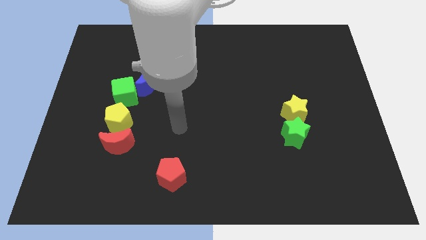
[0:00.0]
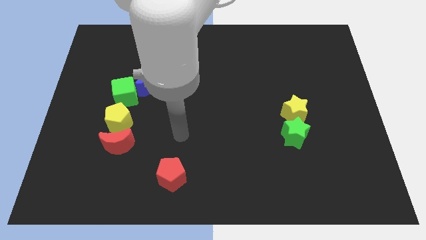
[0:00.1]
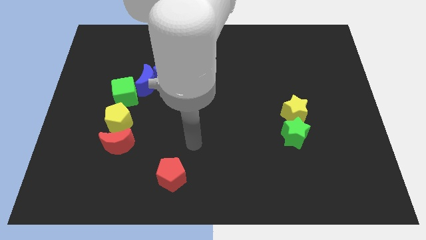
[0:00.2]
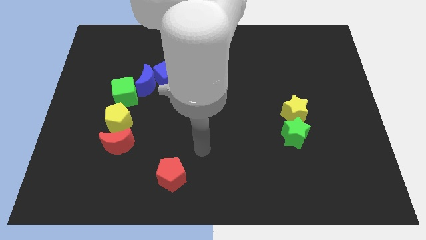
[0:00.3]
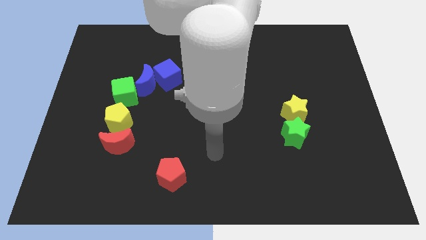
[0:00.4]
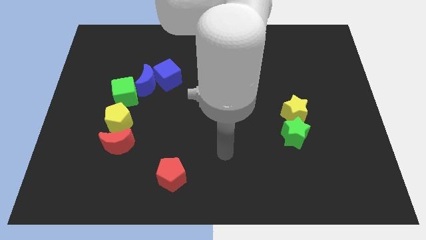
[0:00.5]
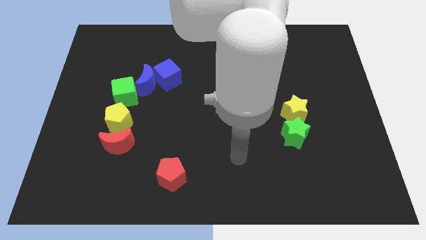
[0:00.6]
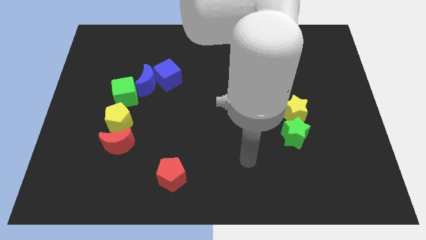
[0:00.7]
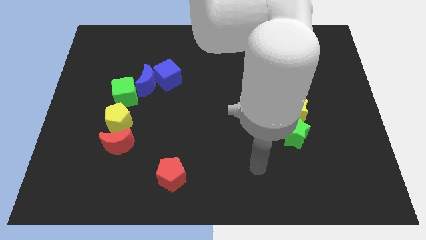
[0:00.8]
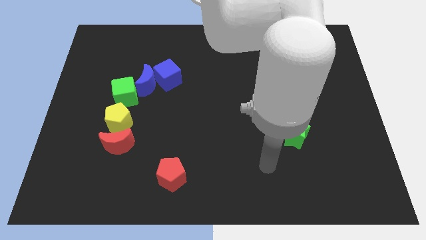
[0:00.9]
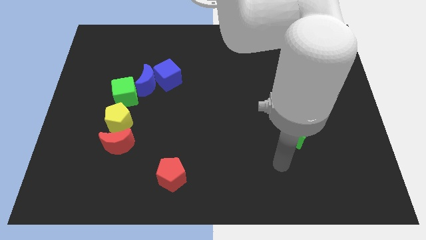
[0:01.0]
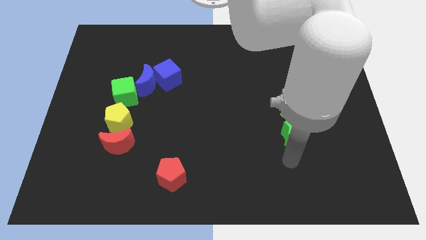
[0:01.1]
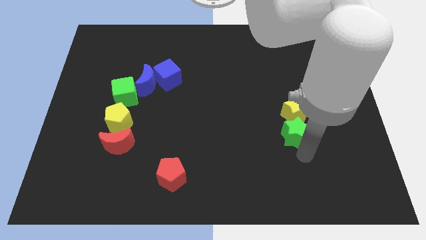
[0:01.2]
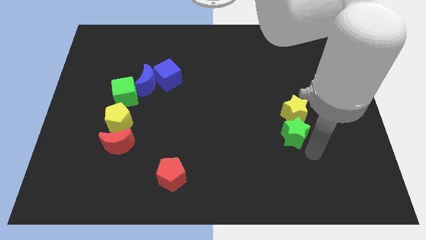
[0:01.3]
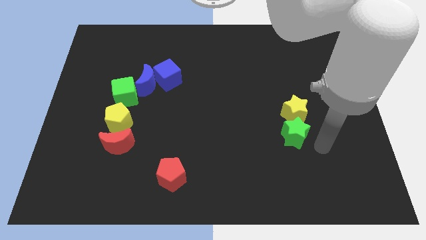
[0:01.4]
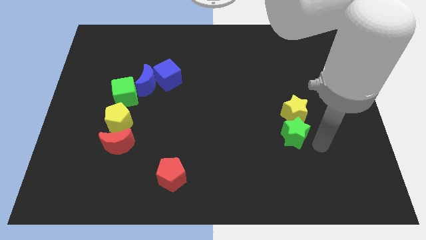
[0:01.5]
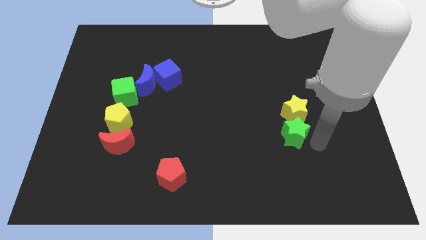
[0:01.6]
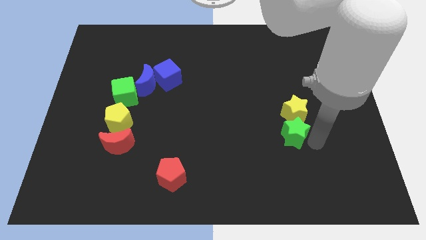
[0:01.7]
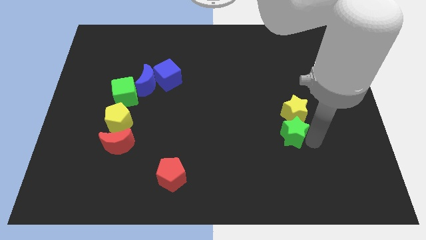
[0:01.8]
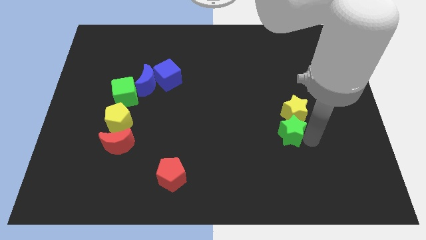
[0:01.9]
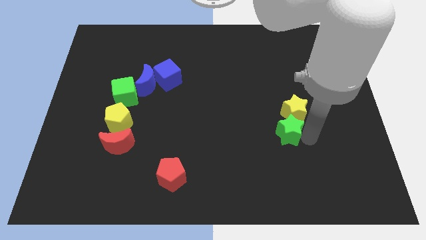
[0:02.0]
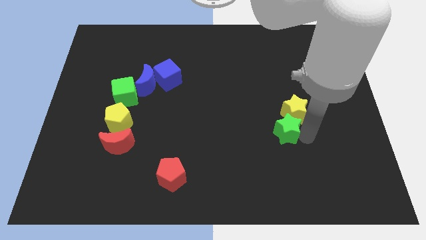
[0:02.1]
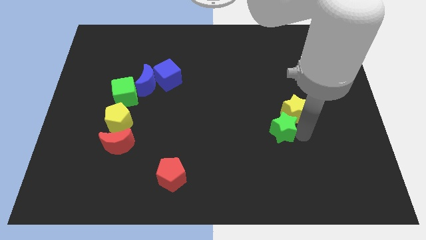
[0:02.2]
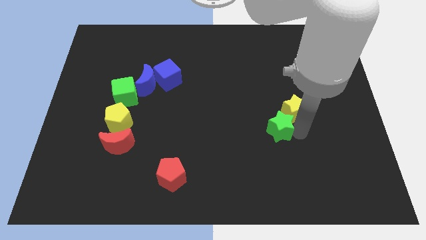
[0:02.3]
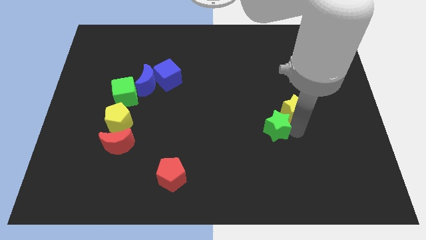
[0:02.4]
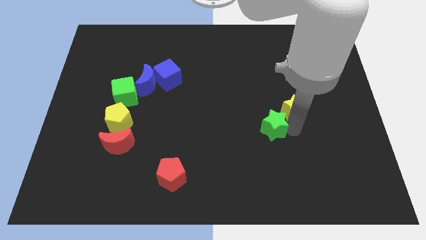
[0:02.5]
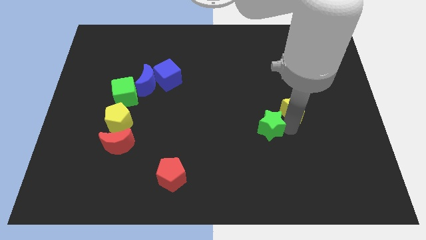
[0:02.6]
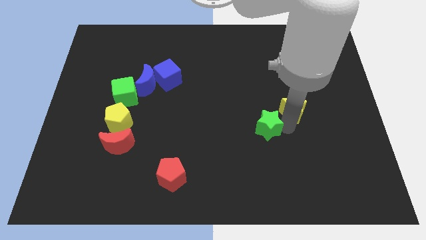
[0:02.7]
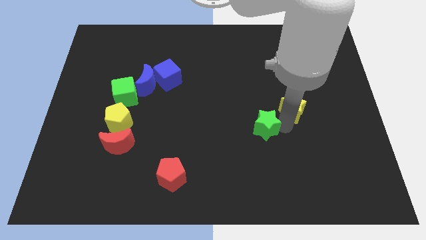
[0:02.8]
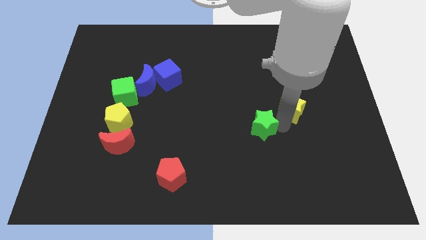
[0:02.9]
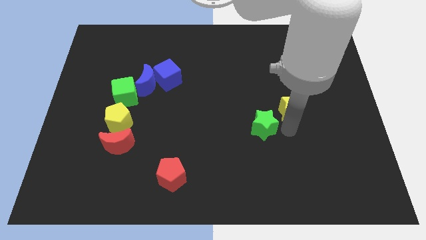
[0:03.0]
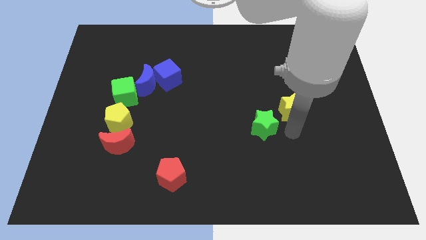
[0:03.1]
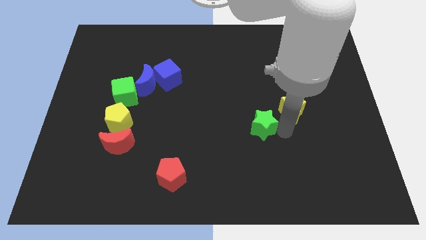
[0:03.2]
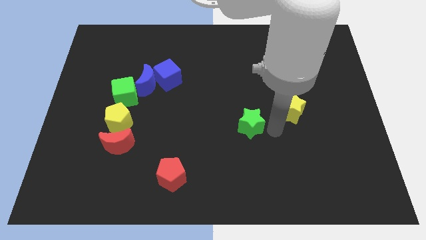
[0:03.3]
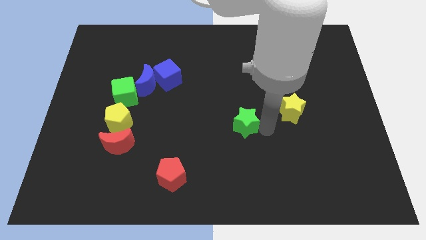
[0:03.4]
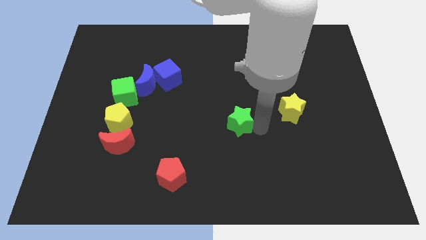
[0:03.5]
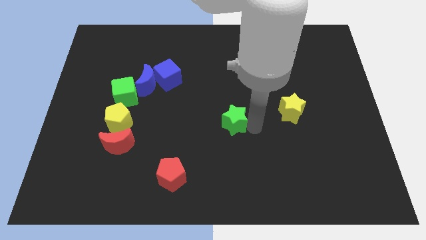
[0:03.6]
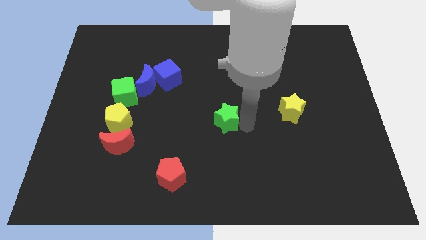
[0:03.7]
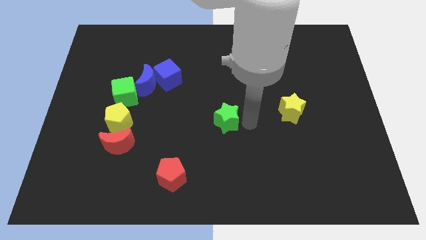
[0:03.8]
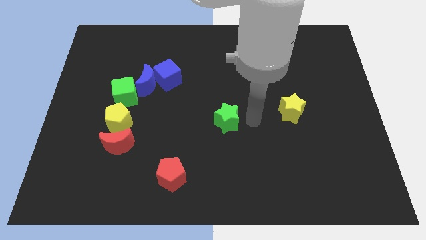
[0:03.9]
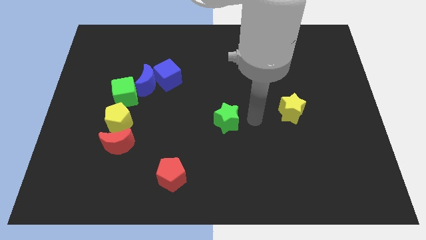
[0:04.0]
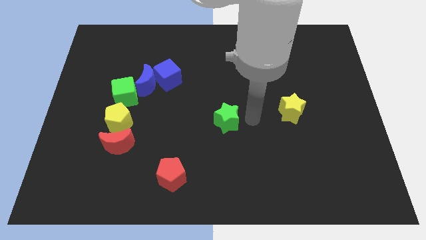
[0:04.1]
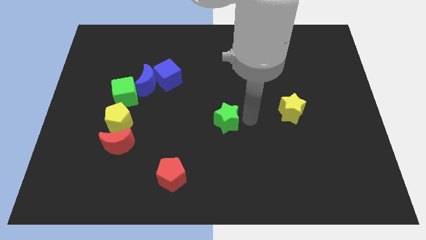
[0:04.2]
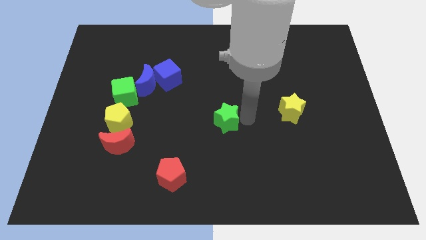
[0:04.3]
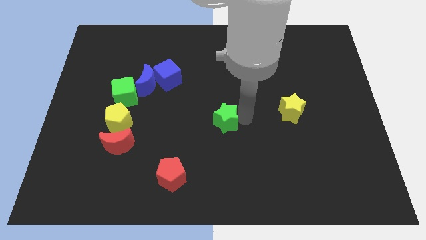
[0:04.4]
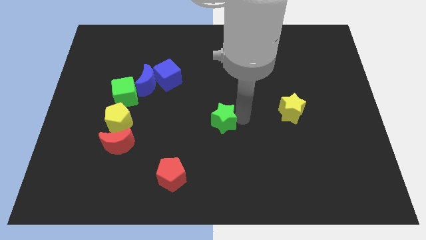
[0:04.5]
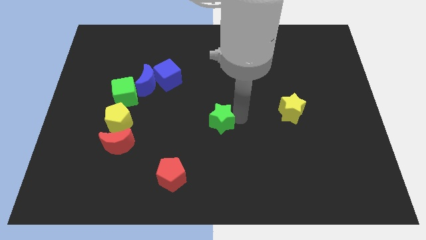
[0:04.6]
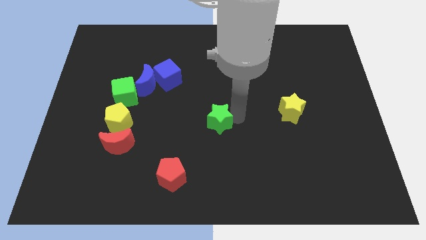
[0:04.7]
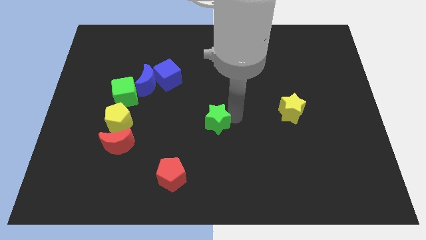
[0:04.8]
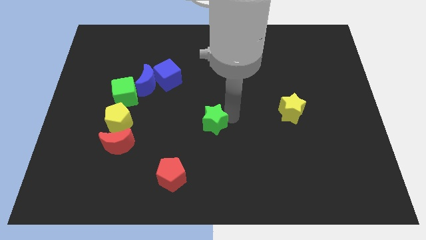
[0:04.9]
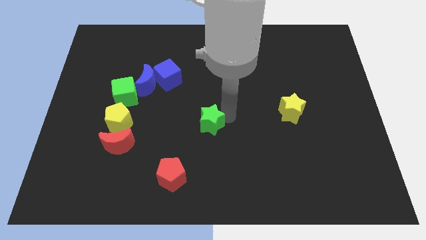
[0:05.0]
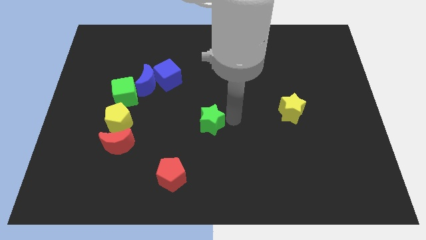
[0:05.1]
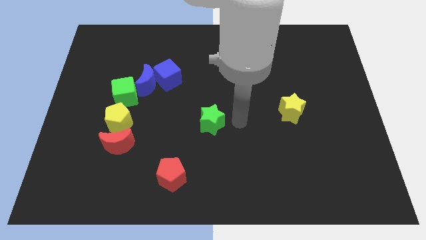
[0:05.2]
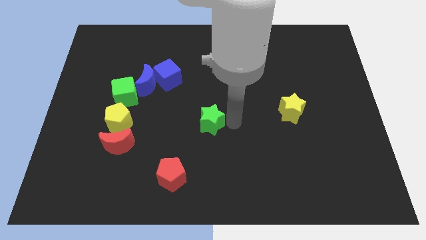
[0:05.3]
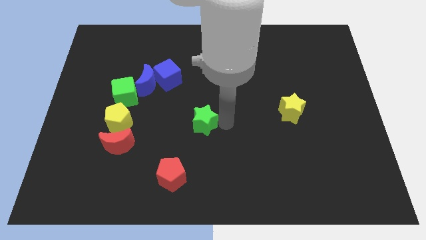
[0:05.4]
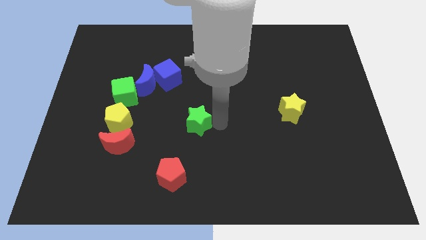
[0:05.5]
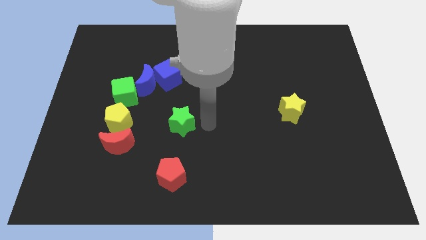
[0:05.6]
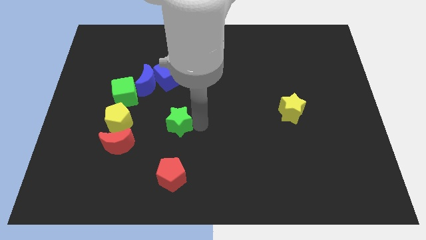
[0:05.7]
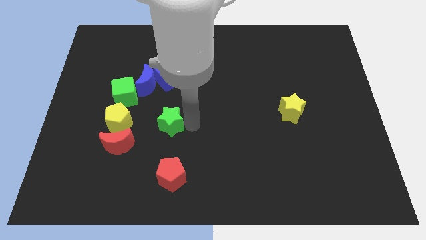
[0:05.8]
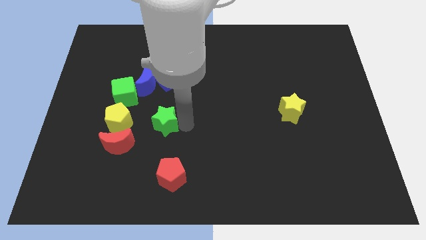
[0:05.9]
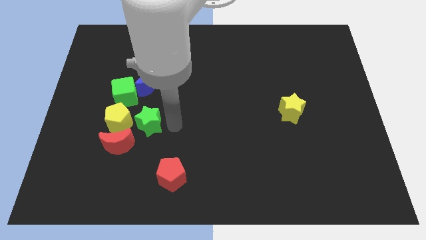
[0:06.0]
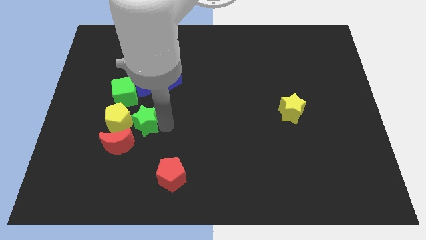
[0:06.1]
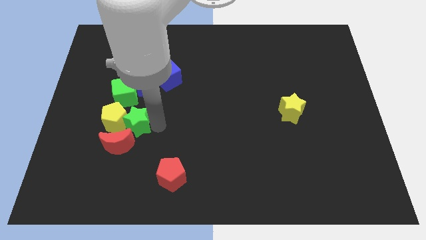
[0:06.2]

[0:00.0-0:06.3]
push the green star next to the yellow pentagon

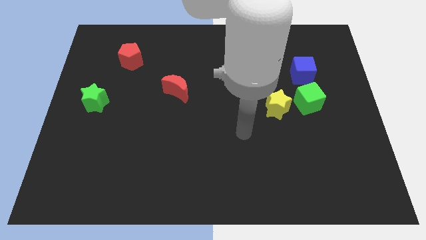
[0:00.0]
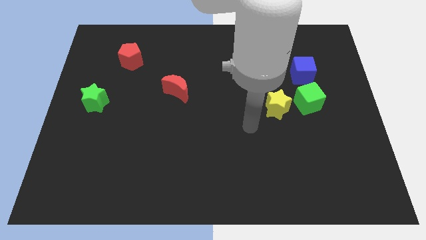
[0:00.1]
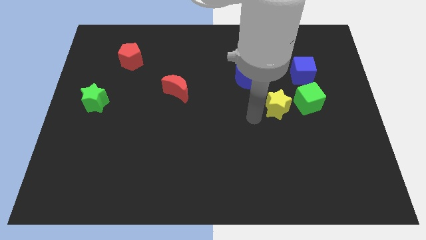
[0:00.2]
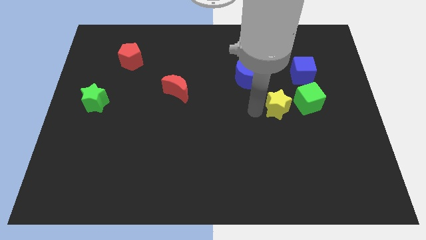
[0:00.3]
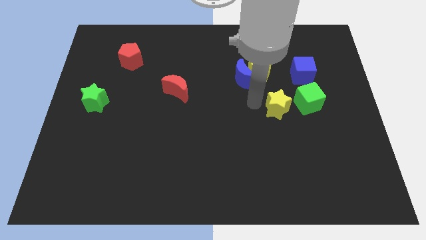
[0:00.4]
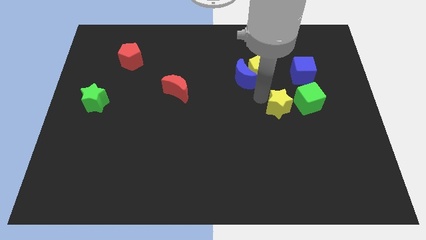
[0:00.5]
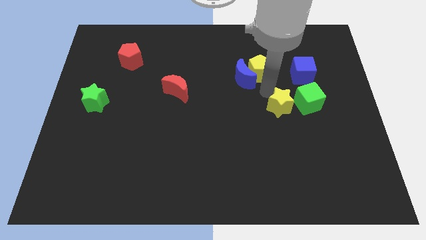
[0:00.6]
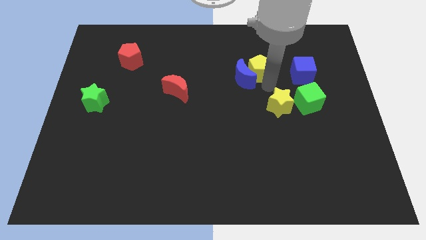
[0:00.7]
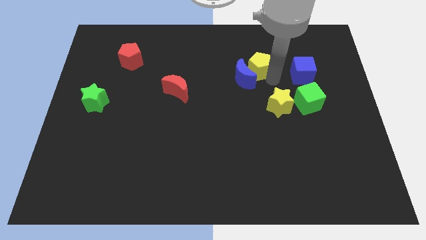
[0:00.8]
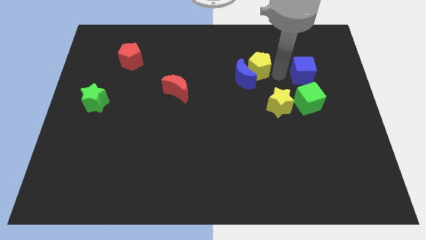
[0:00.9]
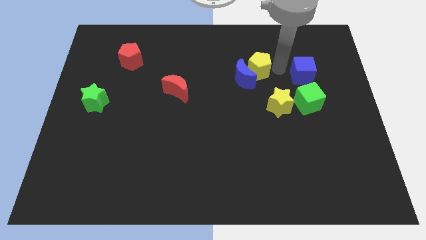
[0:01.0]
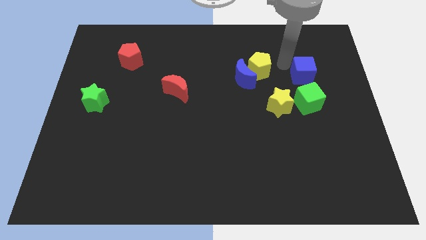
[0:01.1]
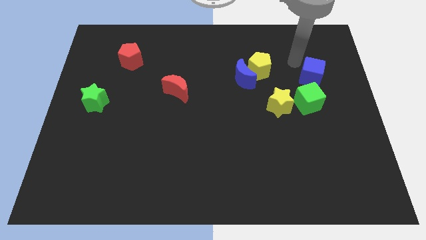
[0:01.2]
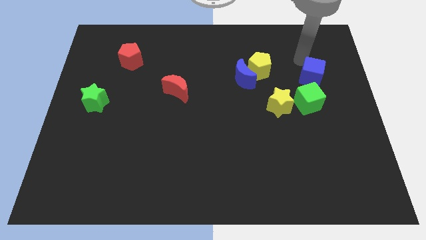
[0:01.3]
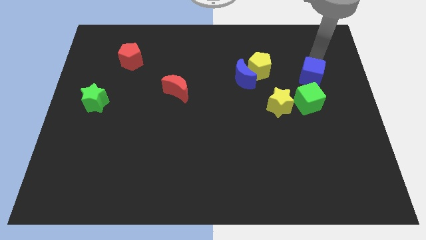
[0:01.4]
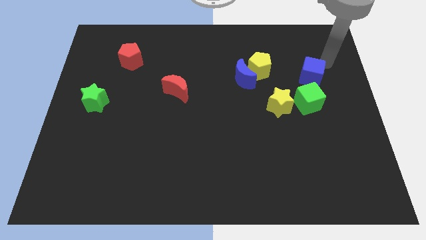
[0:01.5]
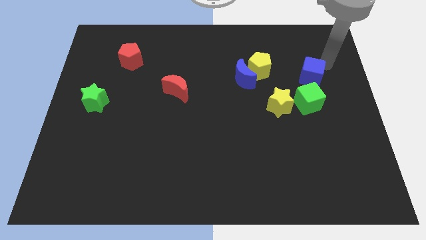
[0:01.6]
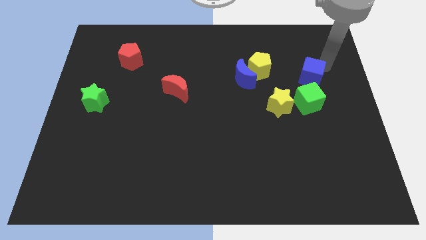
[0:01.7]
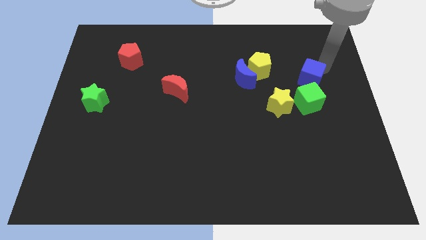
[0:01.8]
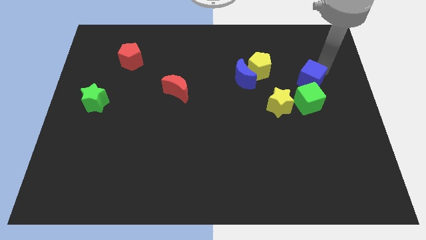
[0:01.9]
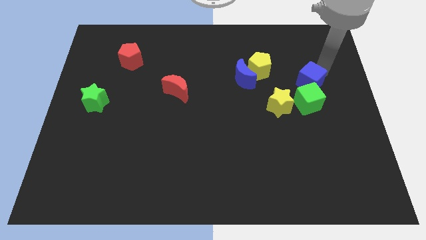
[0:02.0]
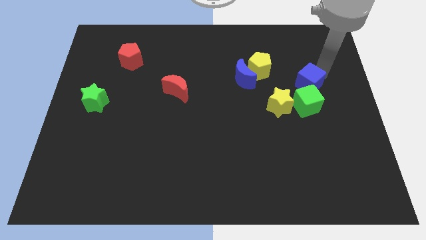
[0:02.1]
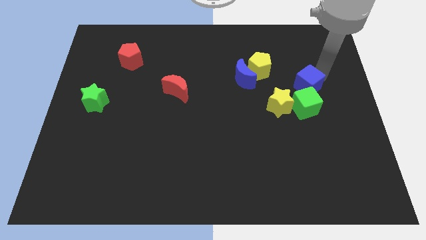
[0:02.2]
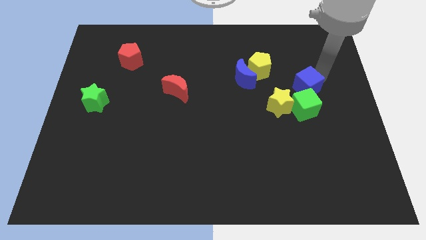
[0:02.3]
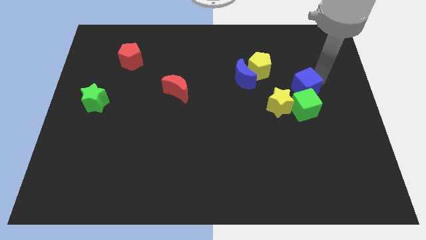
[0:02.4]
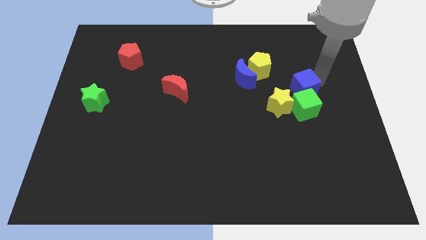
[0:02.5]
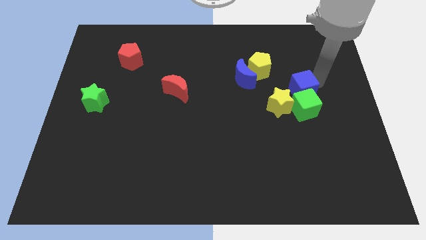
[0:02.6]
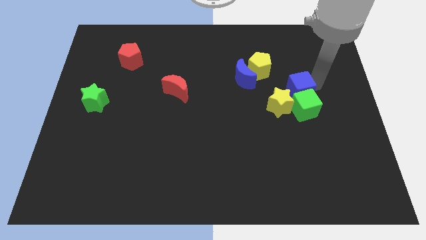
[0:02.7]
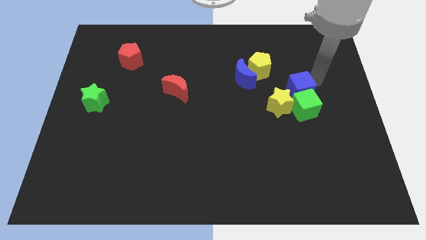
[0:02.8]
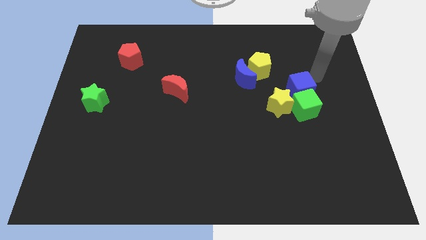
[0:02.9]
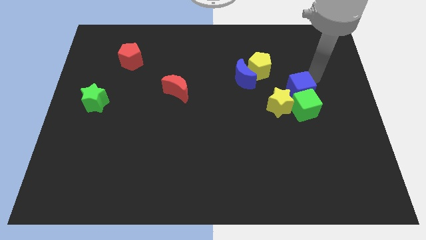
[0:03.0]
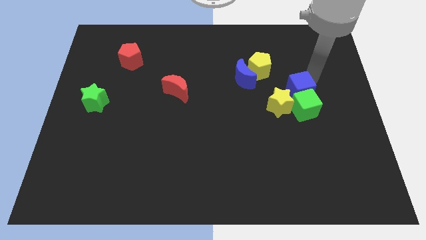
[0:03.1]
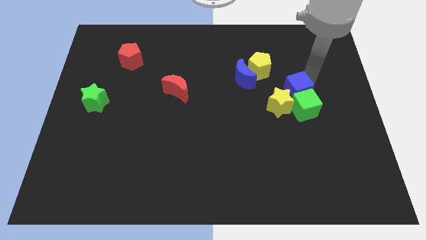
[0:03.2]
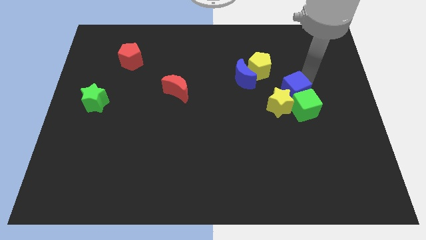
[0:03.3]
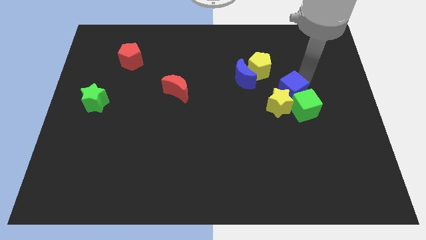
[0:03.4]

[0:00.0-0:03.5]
push the blue cube next to the yellow star
